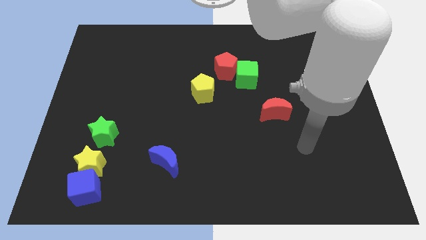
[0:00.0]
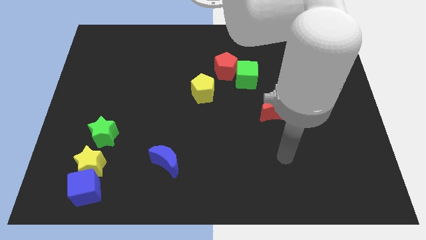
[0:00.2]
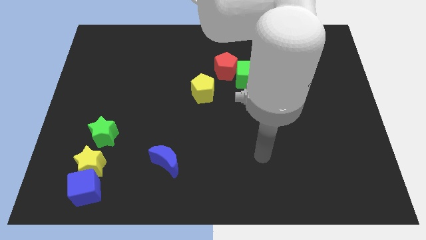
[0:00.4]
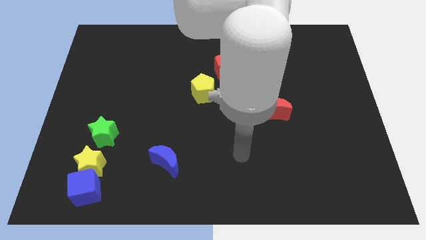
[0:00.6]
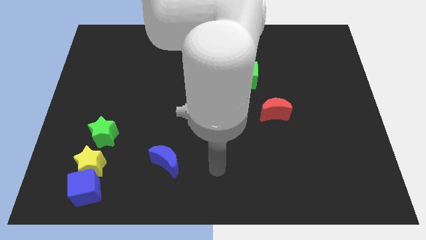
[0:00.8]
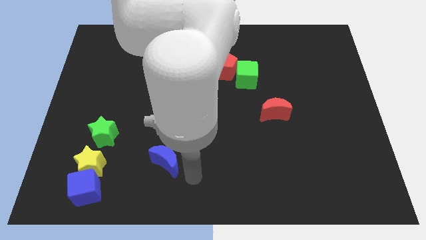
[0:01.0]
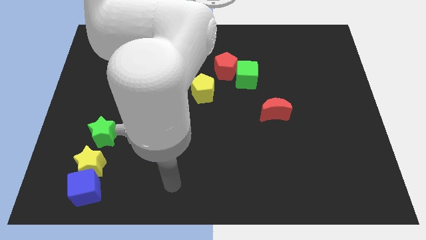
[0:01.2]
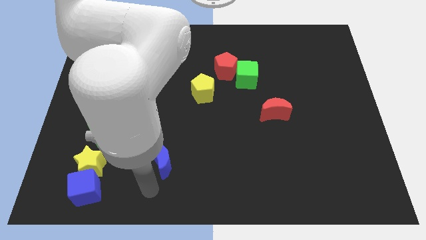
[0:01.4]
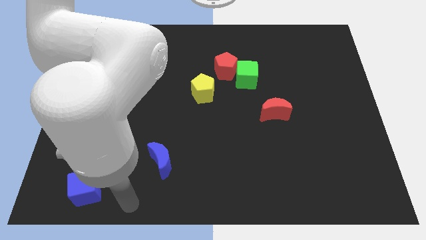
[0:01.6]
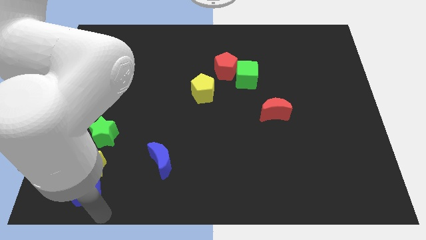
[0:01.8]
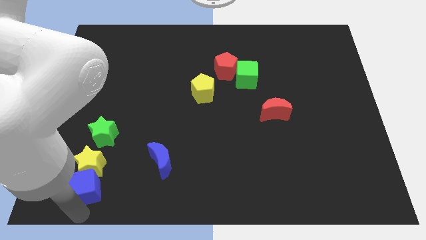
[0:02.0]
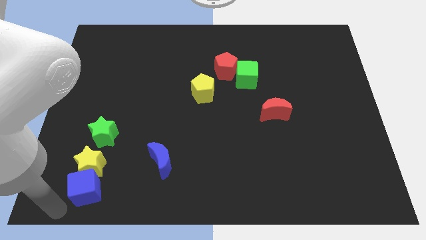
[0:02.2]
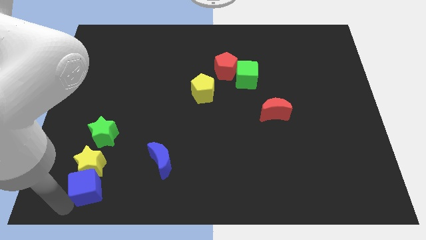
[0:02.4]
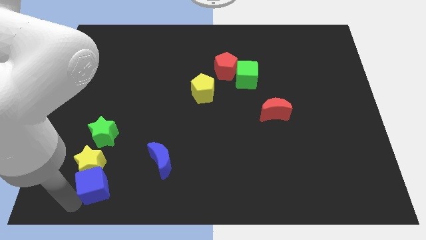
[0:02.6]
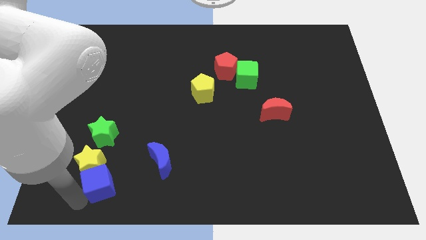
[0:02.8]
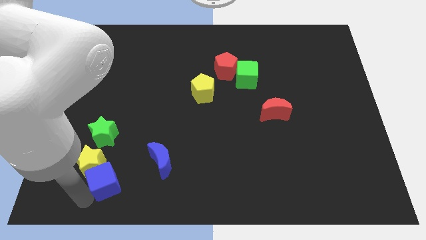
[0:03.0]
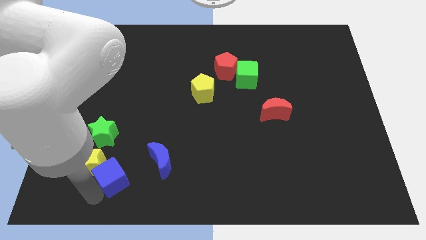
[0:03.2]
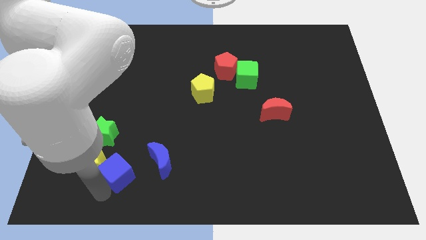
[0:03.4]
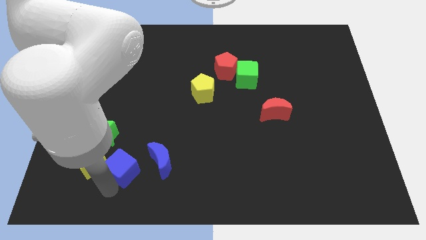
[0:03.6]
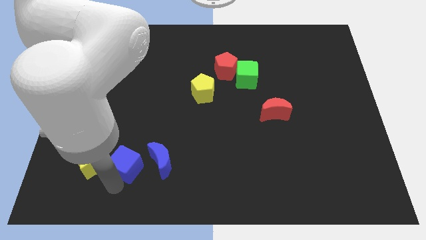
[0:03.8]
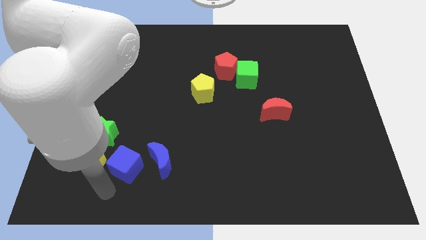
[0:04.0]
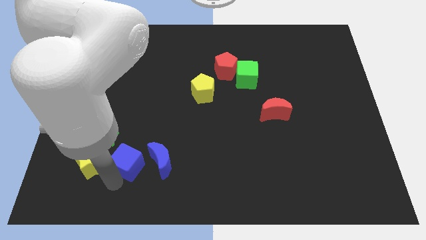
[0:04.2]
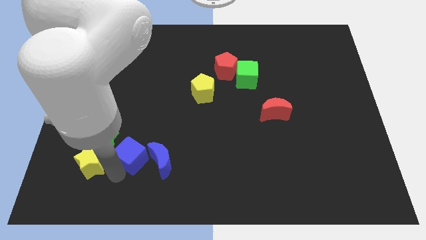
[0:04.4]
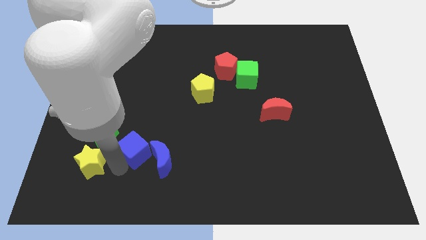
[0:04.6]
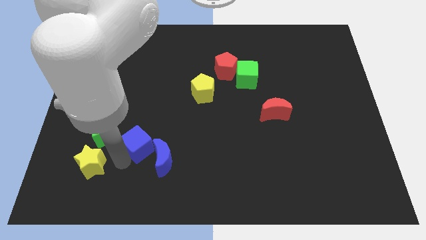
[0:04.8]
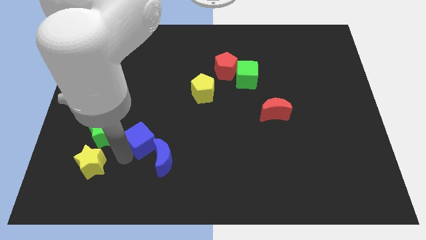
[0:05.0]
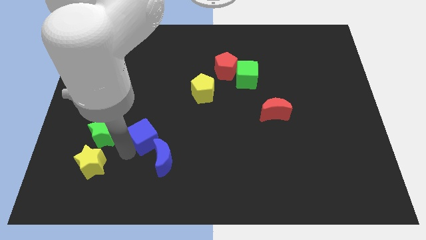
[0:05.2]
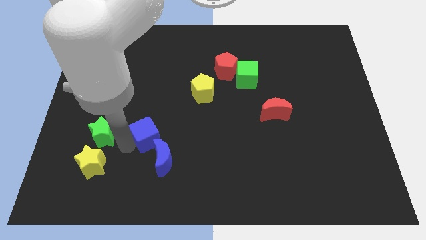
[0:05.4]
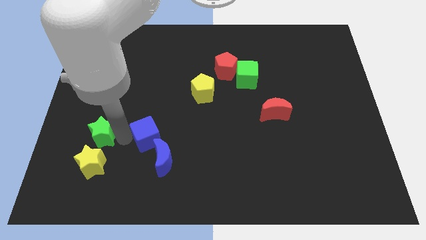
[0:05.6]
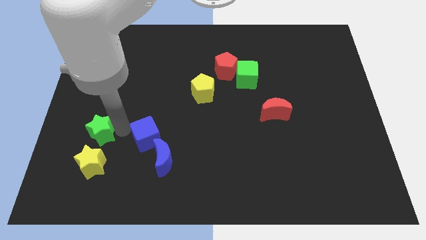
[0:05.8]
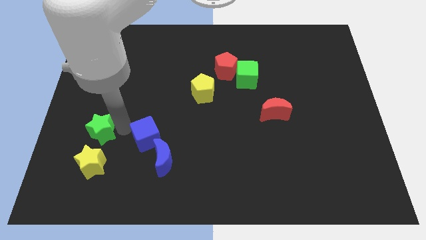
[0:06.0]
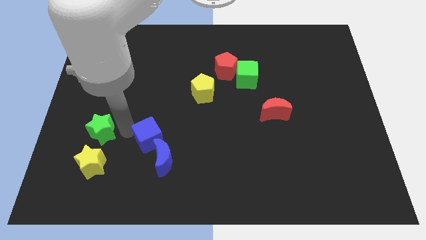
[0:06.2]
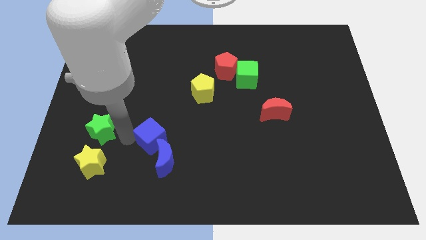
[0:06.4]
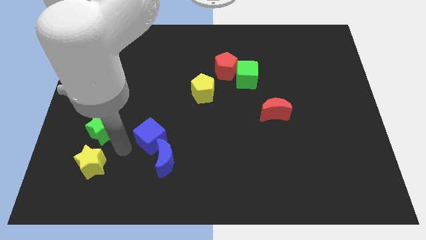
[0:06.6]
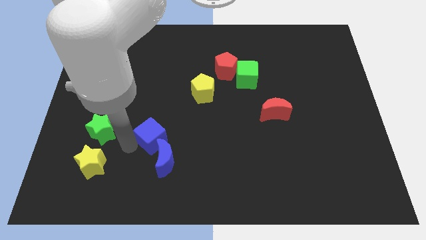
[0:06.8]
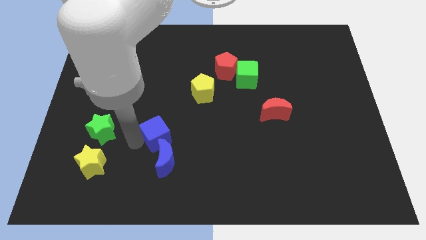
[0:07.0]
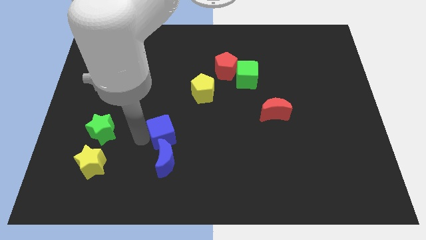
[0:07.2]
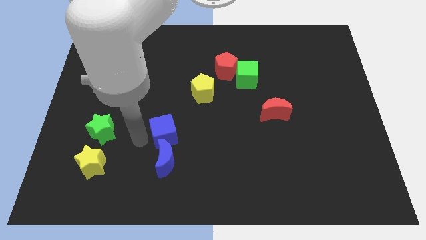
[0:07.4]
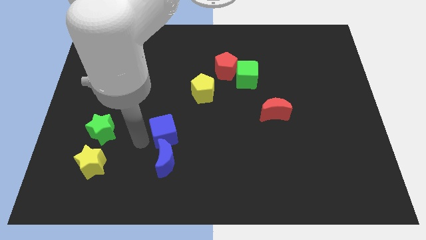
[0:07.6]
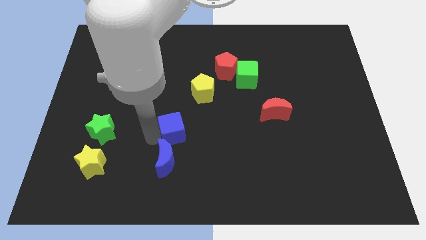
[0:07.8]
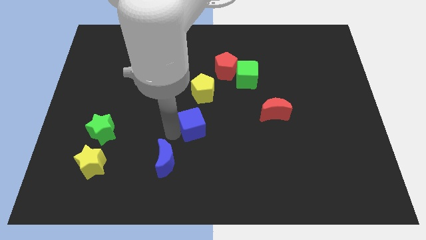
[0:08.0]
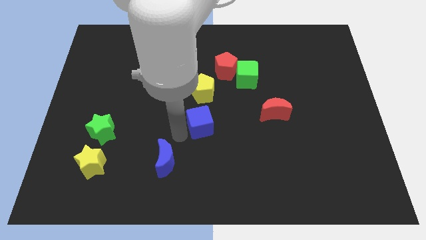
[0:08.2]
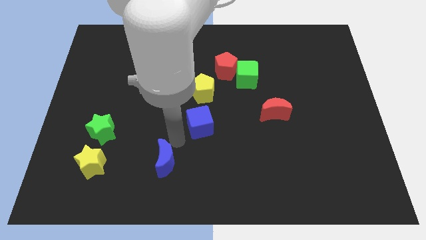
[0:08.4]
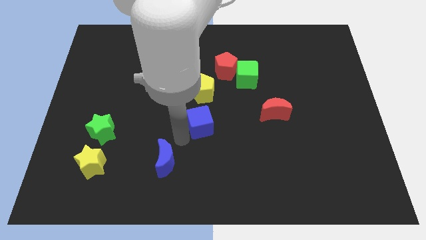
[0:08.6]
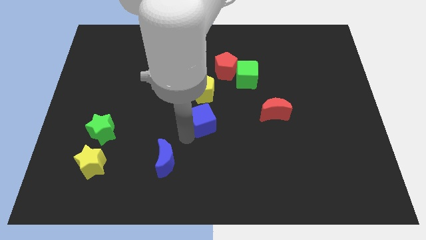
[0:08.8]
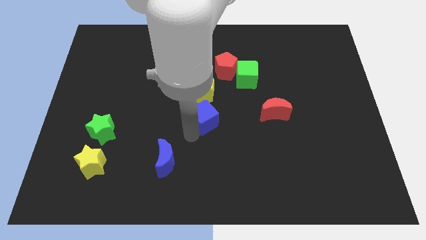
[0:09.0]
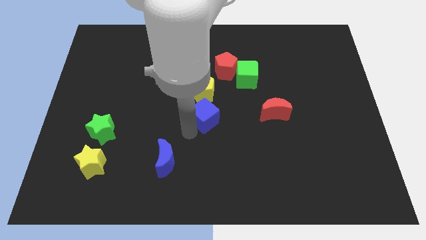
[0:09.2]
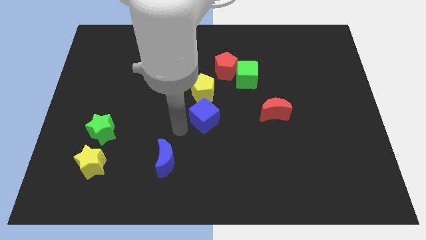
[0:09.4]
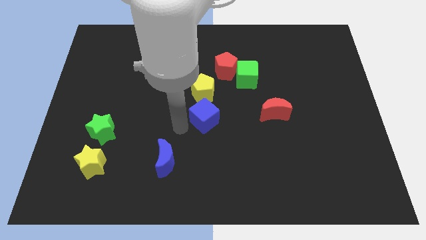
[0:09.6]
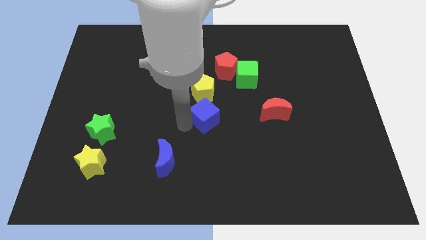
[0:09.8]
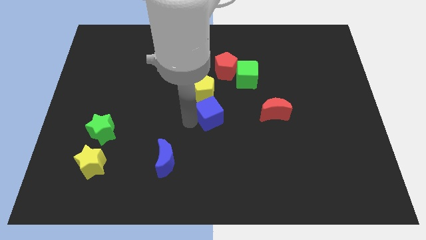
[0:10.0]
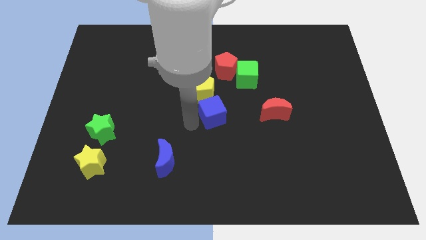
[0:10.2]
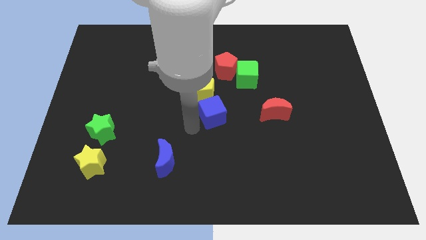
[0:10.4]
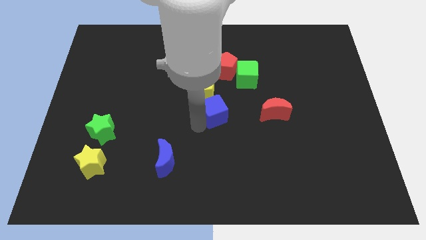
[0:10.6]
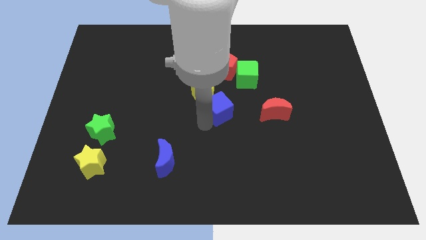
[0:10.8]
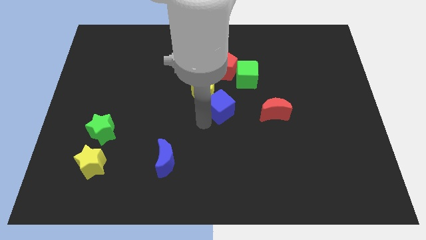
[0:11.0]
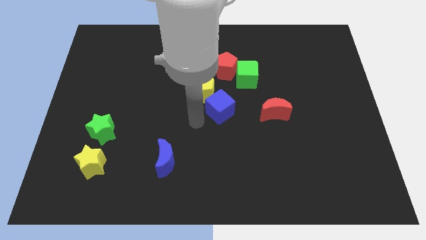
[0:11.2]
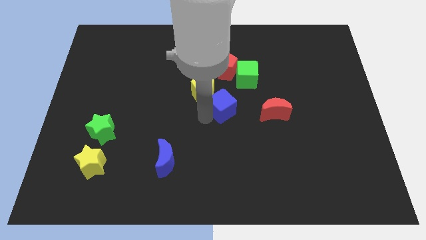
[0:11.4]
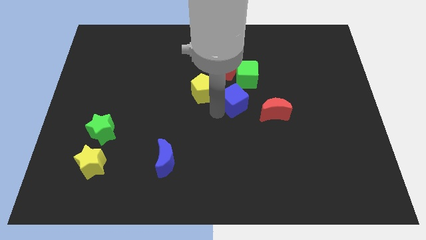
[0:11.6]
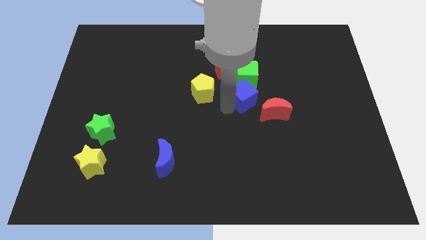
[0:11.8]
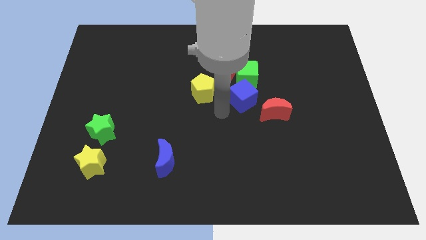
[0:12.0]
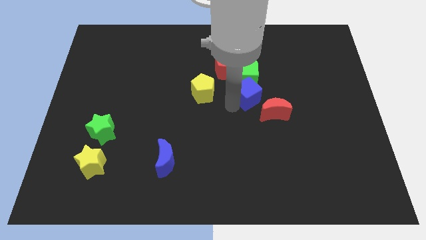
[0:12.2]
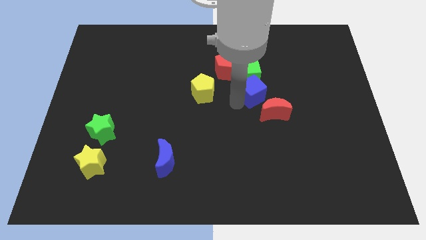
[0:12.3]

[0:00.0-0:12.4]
move the blue cube above the red moon
